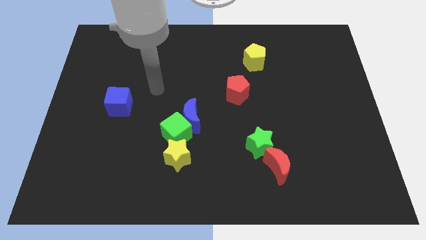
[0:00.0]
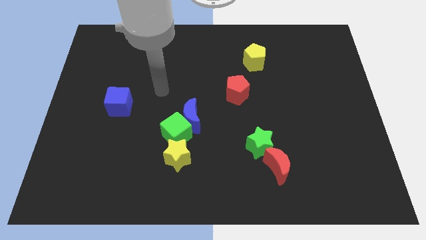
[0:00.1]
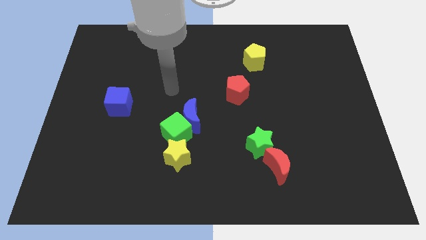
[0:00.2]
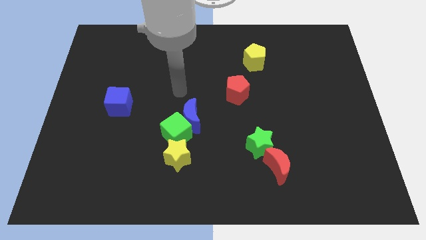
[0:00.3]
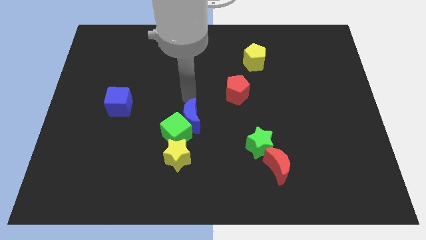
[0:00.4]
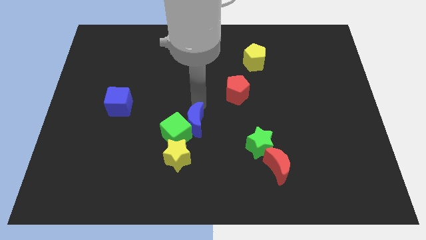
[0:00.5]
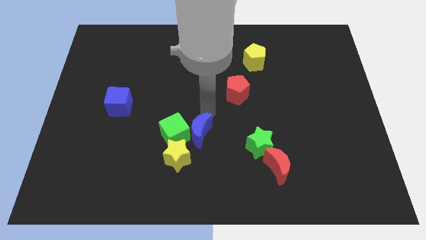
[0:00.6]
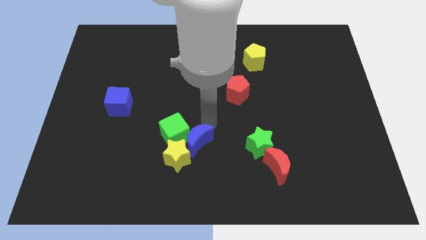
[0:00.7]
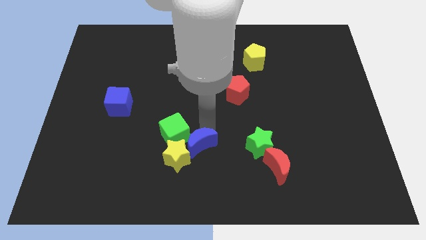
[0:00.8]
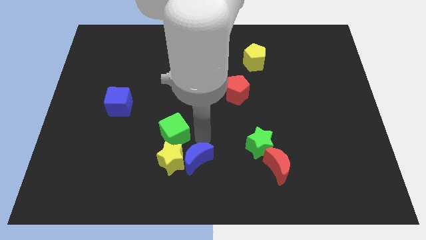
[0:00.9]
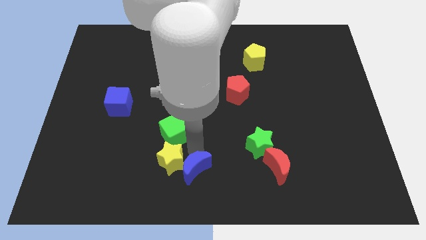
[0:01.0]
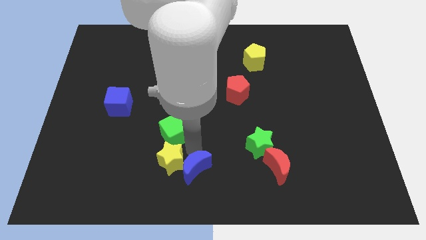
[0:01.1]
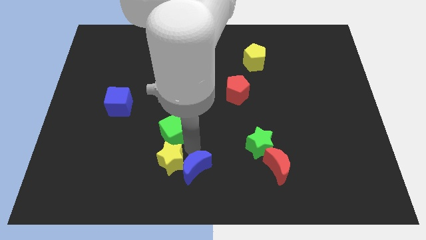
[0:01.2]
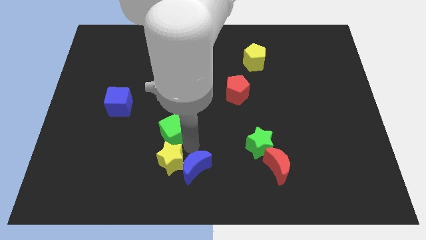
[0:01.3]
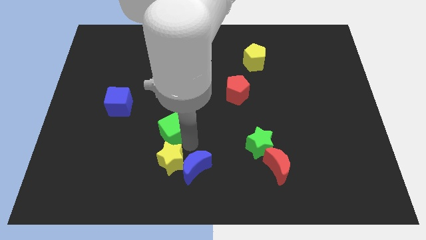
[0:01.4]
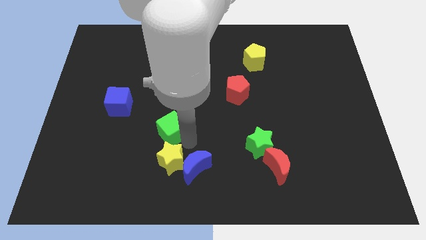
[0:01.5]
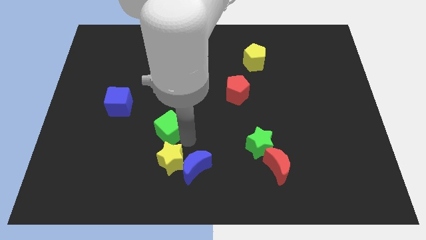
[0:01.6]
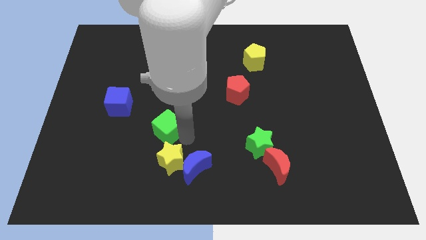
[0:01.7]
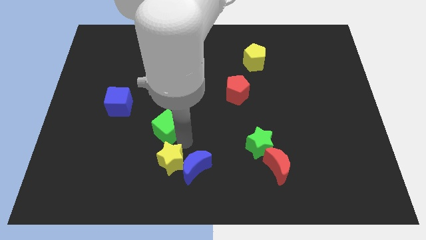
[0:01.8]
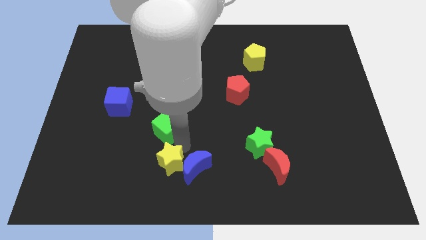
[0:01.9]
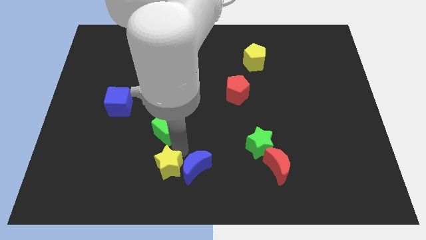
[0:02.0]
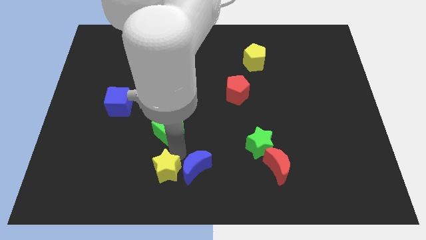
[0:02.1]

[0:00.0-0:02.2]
pull the green cube apart from the blue moon and yellow star

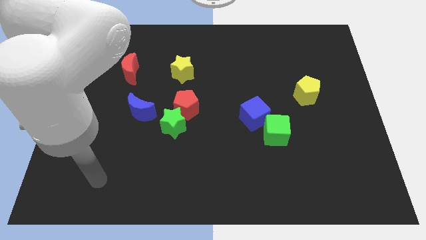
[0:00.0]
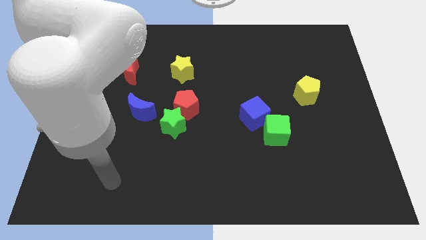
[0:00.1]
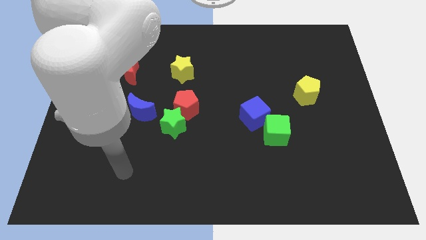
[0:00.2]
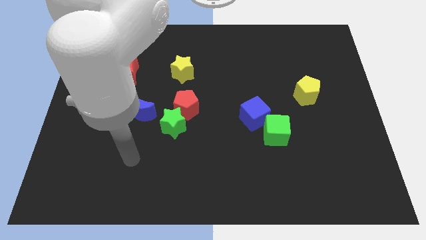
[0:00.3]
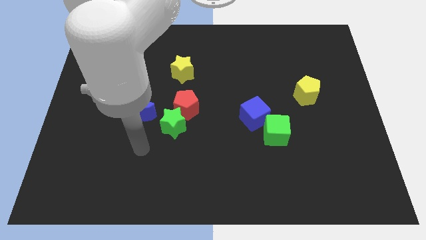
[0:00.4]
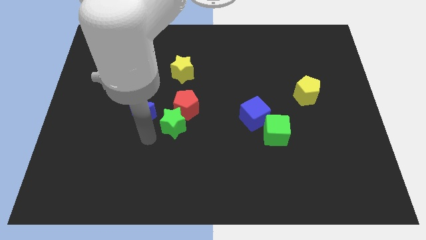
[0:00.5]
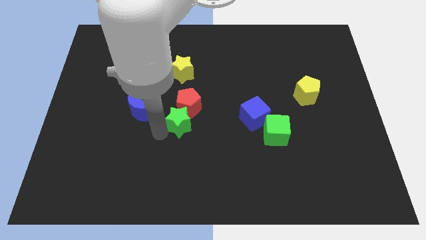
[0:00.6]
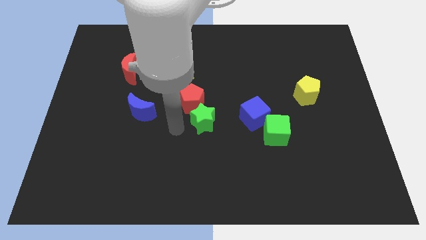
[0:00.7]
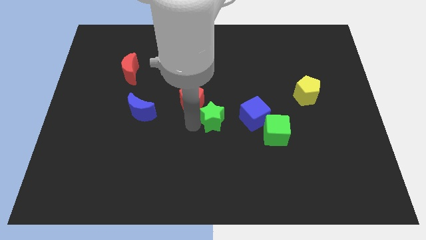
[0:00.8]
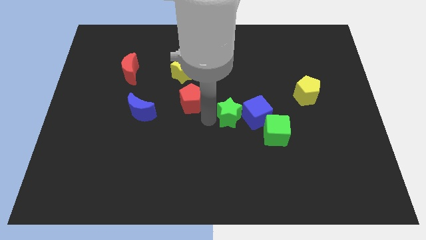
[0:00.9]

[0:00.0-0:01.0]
move the red pentagon away from the green star

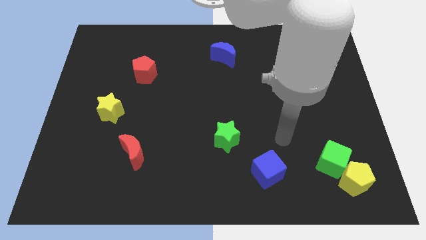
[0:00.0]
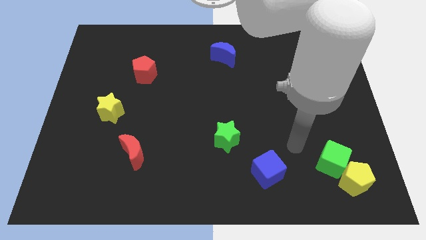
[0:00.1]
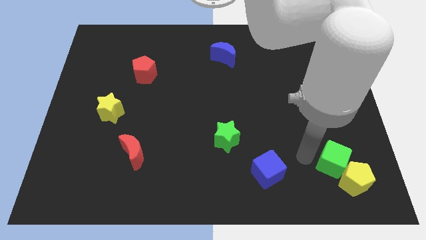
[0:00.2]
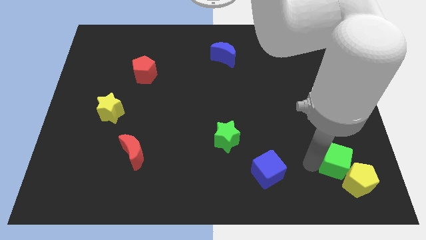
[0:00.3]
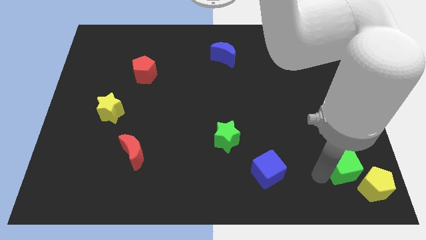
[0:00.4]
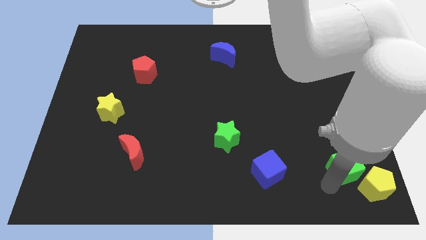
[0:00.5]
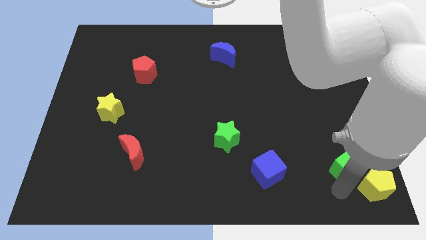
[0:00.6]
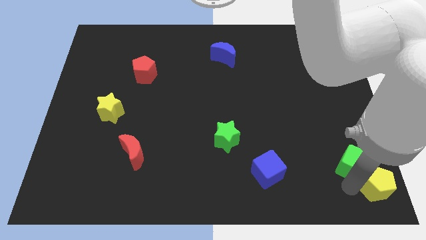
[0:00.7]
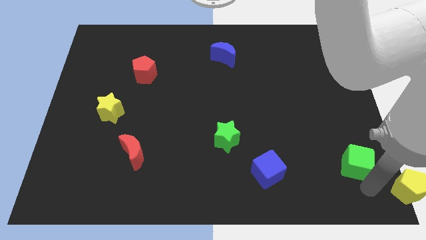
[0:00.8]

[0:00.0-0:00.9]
separate the green cube from the yellow pentagon

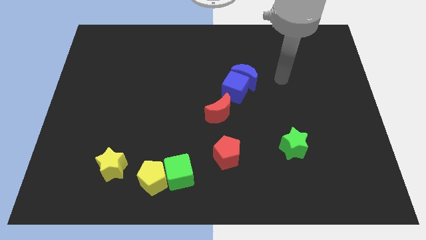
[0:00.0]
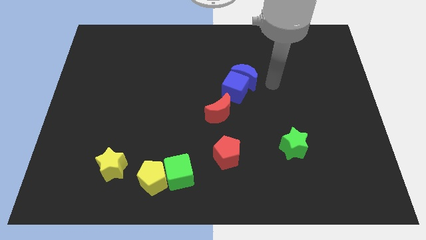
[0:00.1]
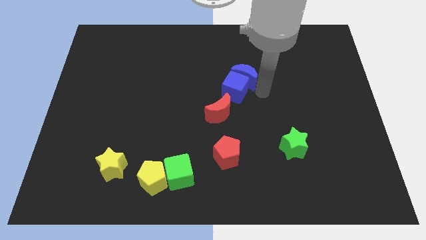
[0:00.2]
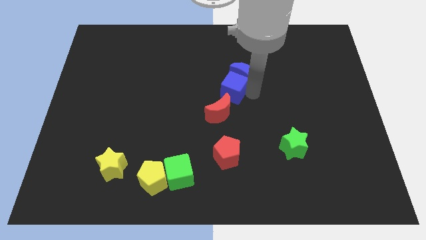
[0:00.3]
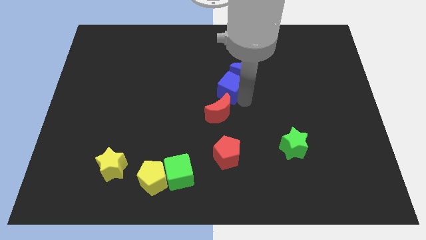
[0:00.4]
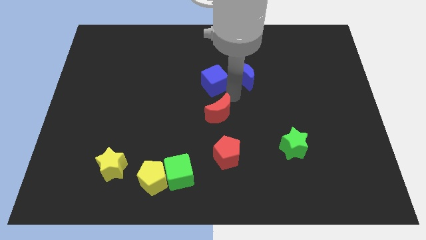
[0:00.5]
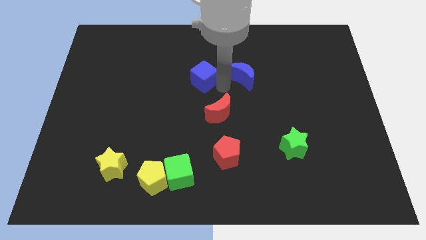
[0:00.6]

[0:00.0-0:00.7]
move the blue moon away from the blue cube

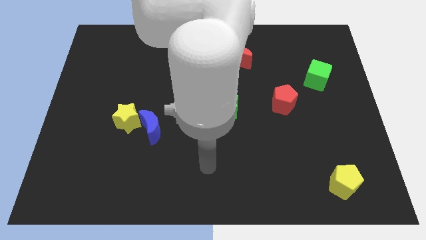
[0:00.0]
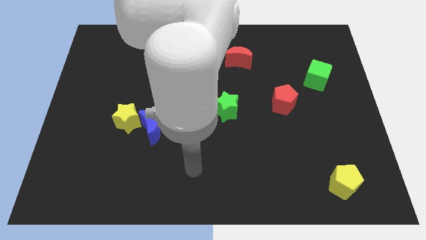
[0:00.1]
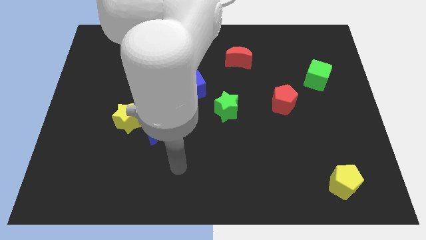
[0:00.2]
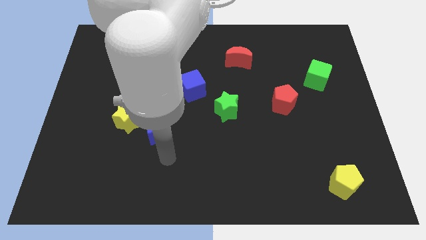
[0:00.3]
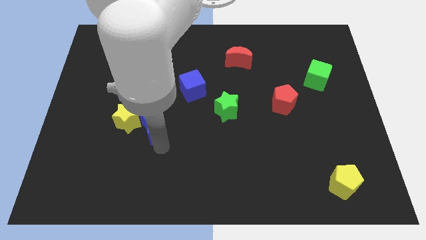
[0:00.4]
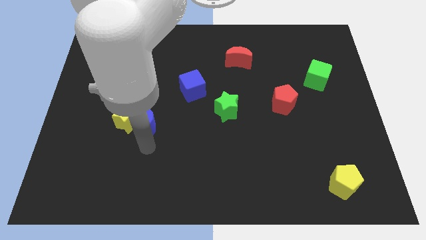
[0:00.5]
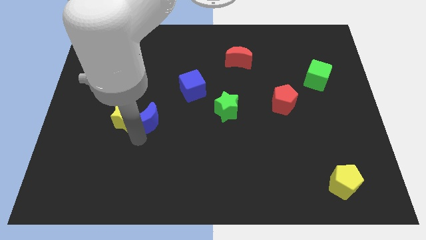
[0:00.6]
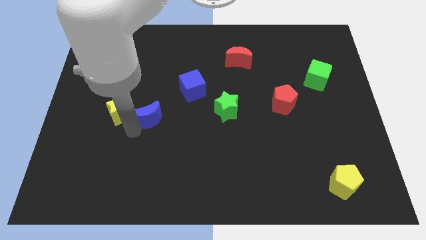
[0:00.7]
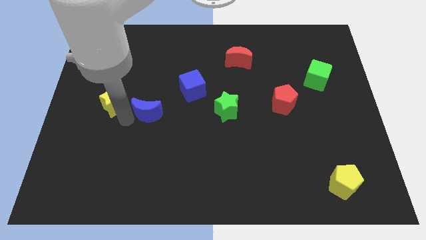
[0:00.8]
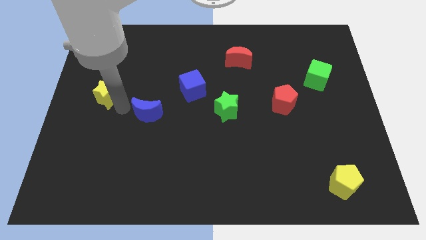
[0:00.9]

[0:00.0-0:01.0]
move the blue moon away from the yellow star

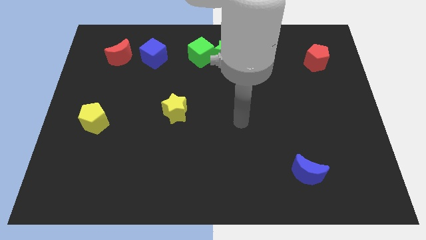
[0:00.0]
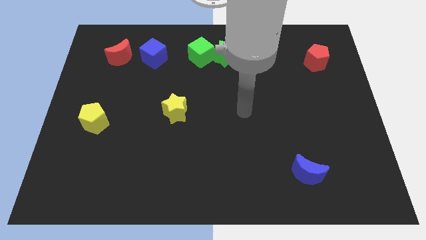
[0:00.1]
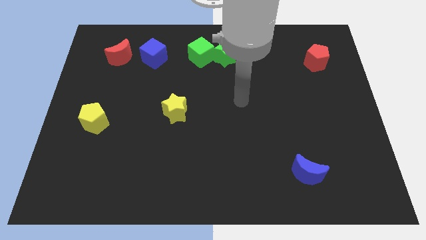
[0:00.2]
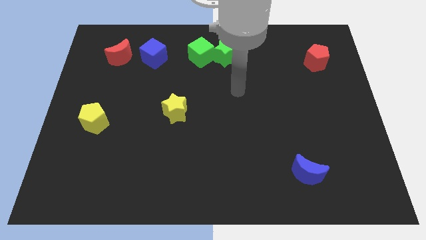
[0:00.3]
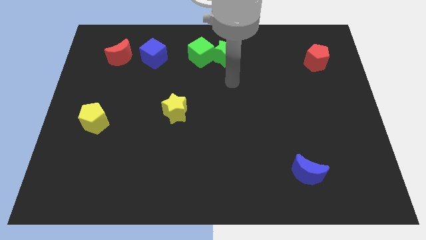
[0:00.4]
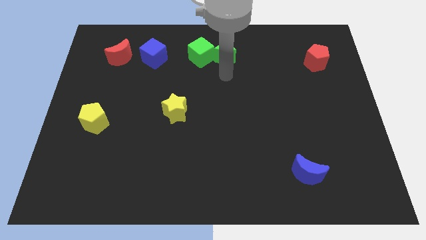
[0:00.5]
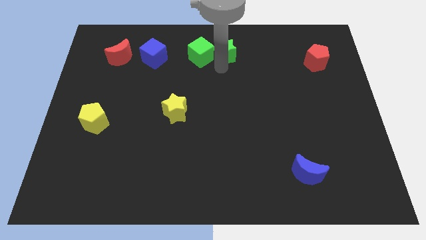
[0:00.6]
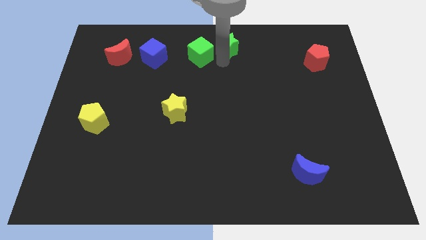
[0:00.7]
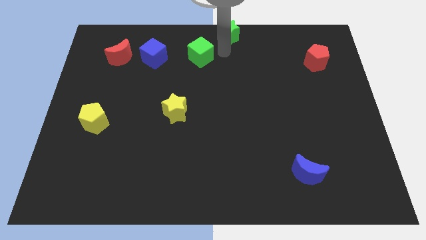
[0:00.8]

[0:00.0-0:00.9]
pull the green cube apart from the green star

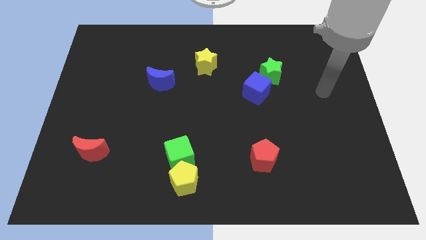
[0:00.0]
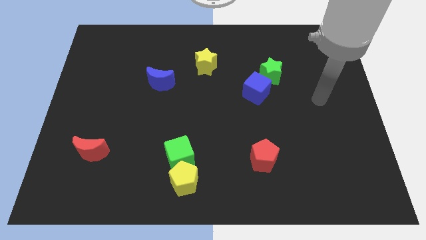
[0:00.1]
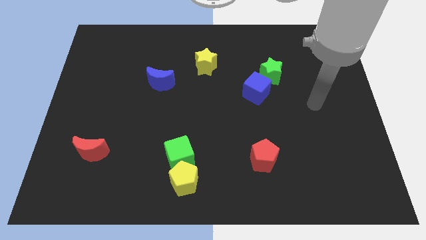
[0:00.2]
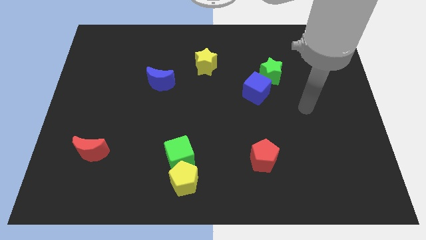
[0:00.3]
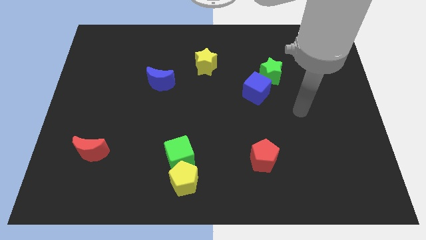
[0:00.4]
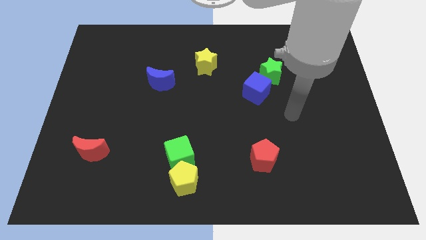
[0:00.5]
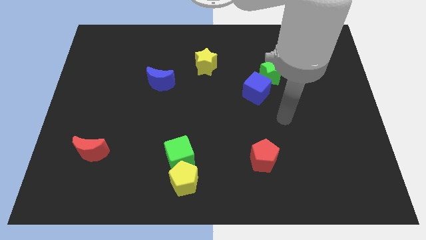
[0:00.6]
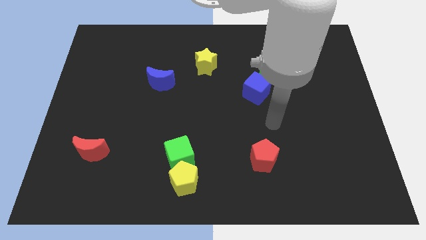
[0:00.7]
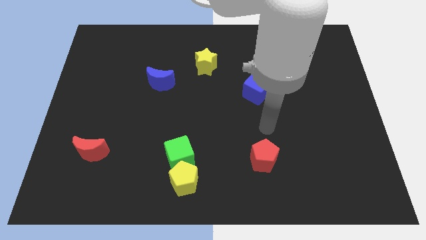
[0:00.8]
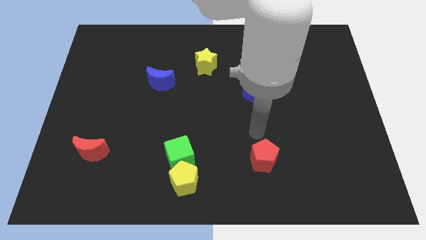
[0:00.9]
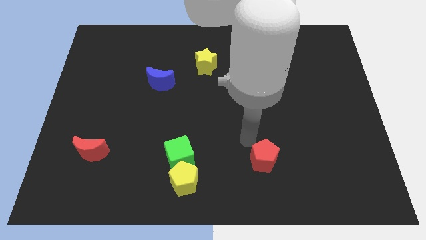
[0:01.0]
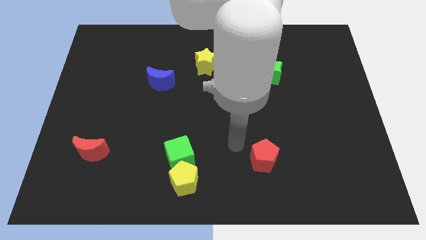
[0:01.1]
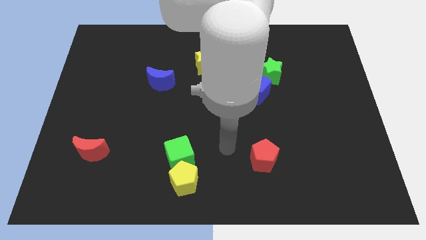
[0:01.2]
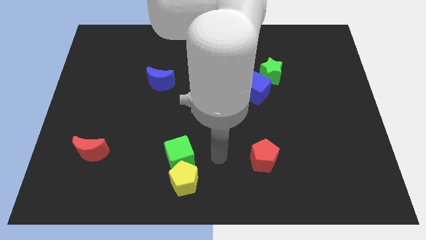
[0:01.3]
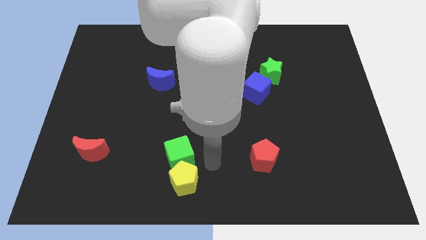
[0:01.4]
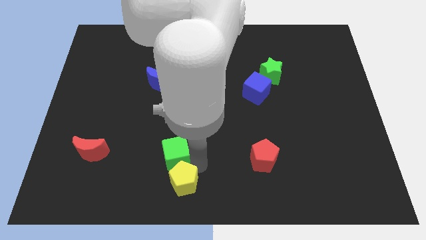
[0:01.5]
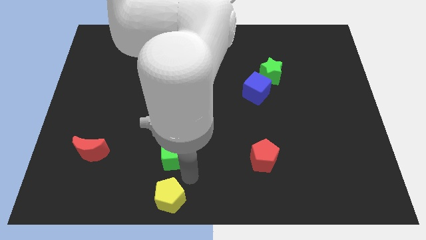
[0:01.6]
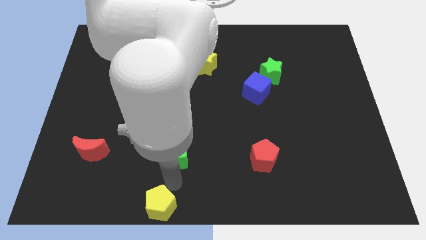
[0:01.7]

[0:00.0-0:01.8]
pull the green cube apart from the yellow pentagon

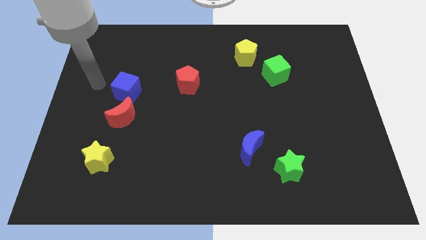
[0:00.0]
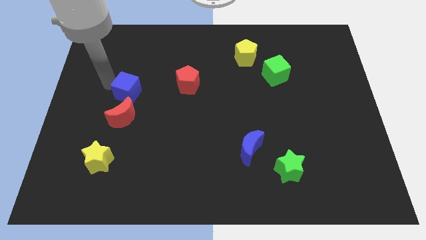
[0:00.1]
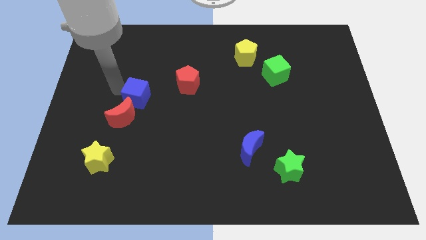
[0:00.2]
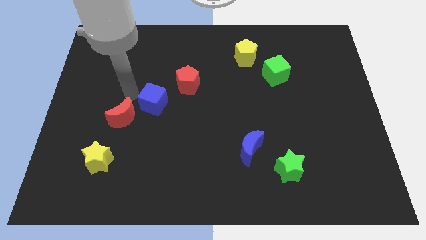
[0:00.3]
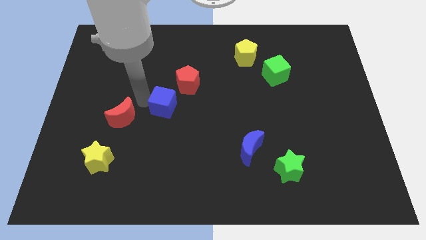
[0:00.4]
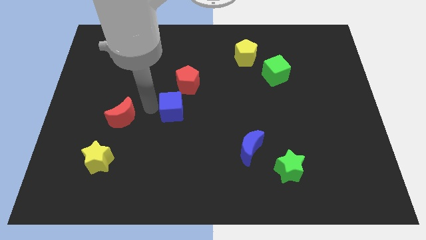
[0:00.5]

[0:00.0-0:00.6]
move the red moon away from the blue cube

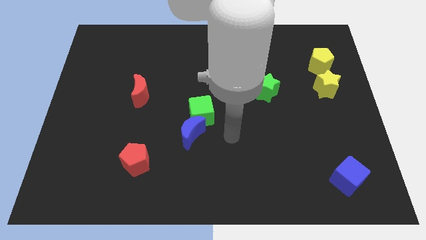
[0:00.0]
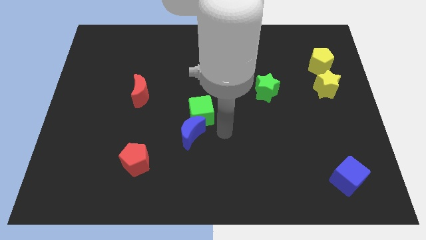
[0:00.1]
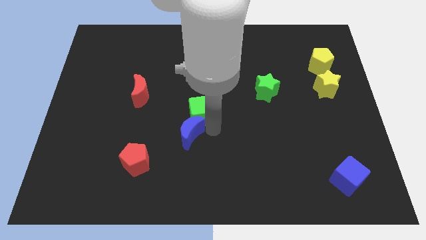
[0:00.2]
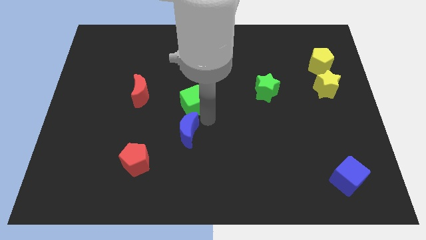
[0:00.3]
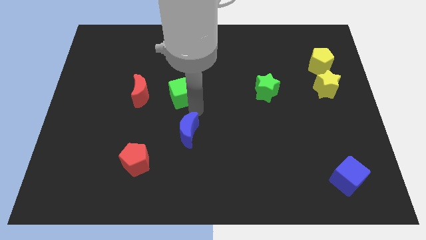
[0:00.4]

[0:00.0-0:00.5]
pull the blue moon apart from the green cube
